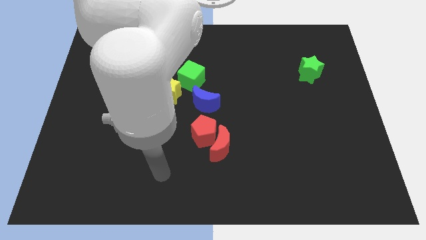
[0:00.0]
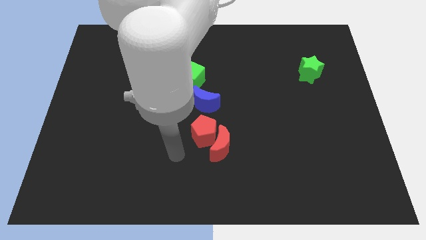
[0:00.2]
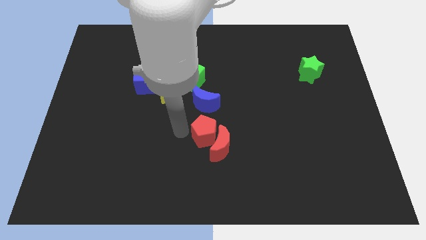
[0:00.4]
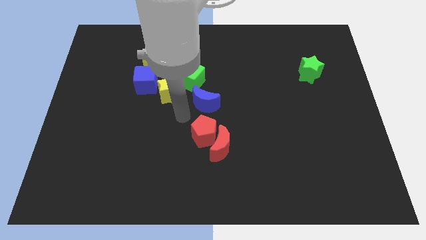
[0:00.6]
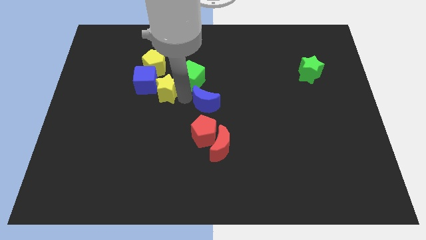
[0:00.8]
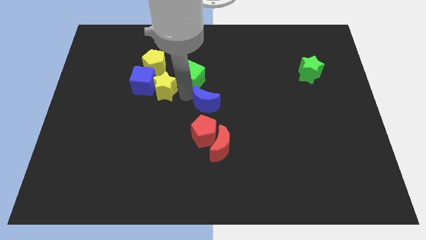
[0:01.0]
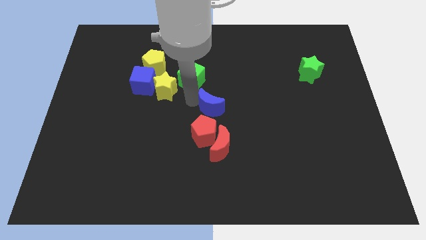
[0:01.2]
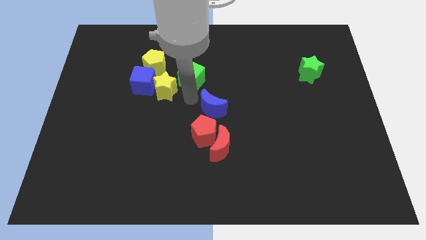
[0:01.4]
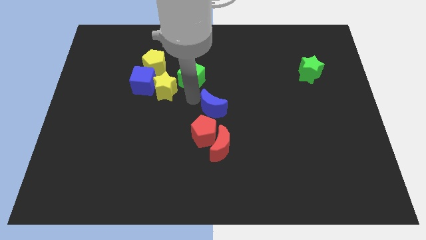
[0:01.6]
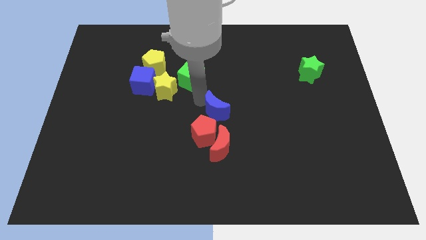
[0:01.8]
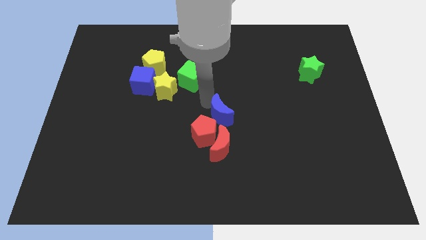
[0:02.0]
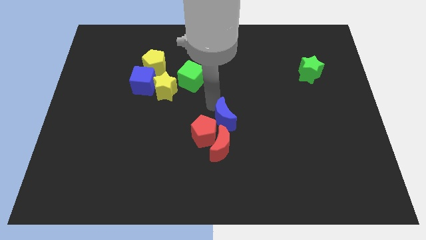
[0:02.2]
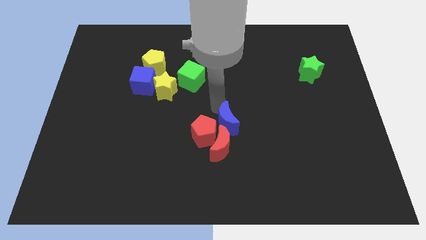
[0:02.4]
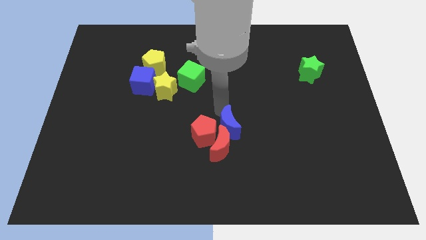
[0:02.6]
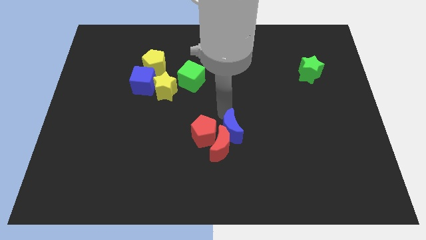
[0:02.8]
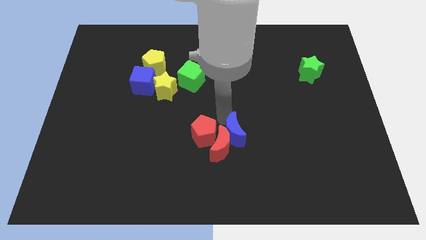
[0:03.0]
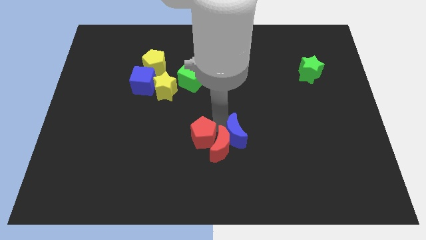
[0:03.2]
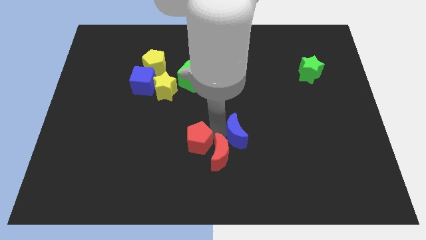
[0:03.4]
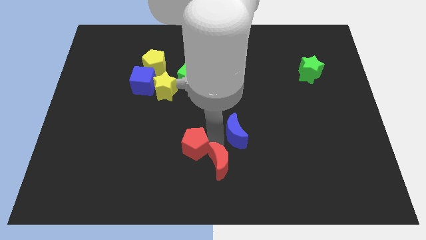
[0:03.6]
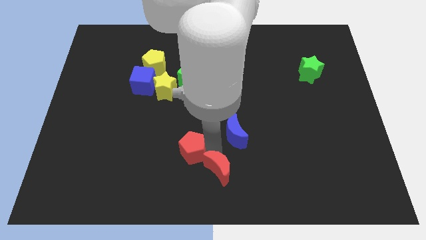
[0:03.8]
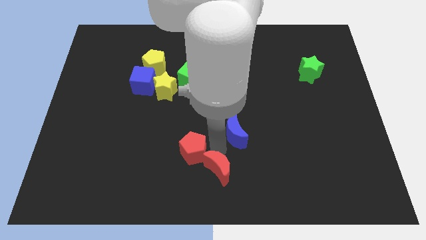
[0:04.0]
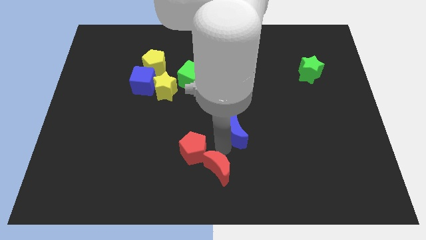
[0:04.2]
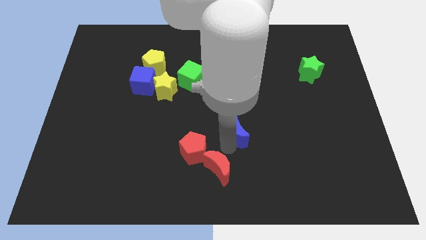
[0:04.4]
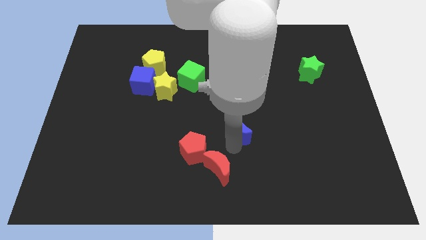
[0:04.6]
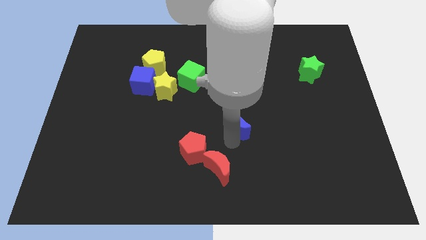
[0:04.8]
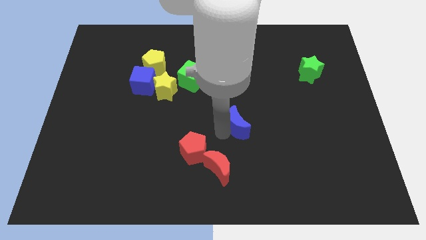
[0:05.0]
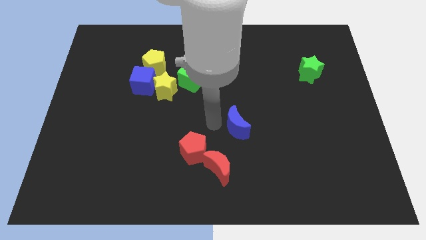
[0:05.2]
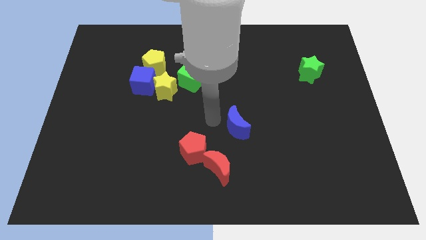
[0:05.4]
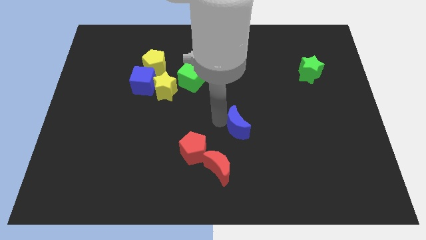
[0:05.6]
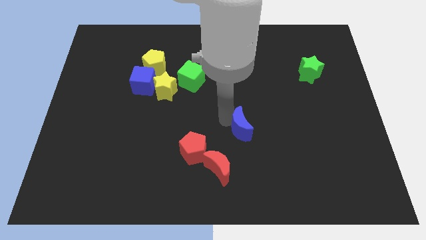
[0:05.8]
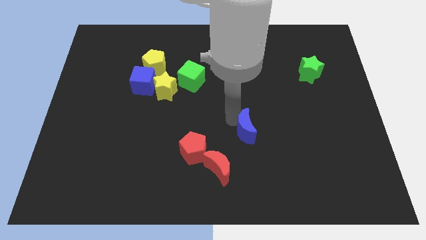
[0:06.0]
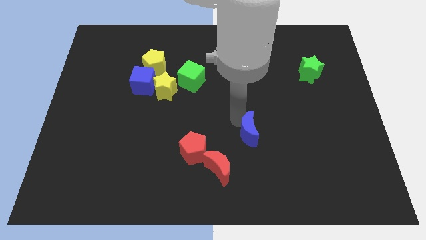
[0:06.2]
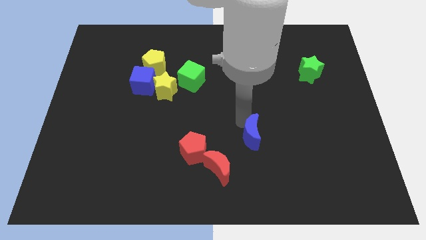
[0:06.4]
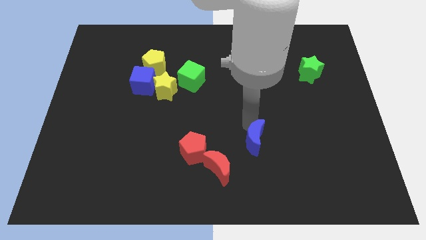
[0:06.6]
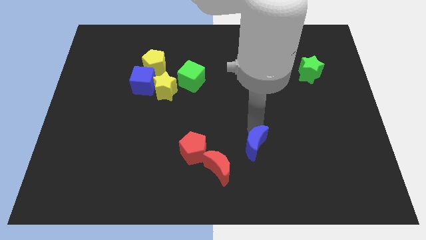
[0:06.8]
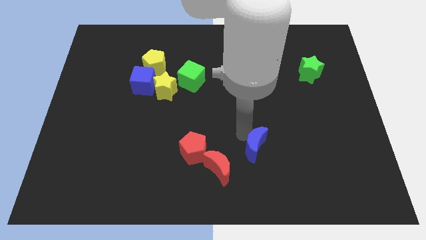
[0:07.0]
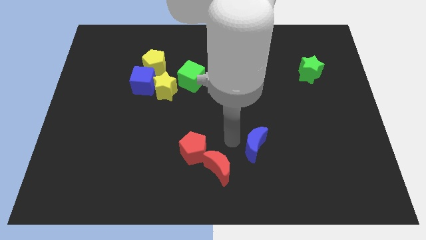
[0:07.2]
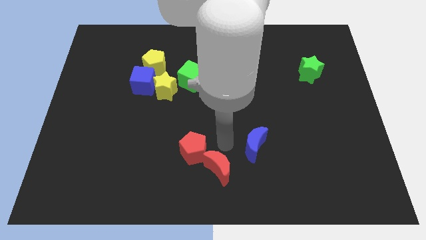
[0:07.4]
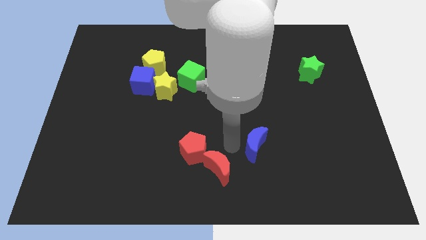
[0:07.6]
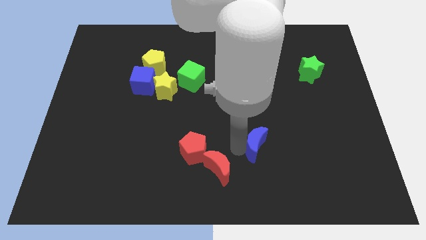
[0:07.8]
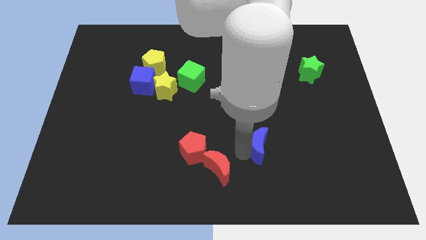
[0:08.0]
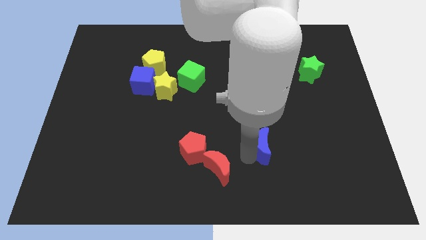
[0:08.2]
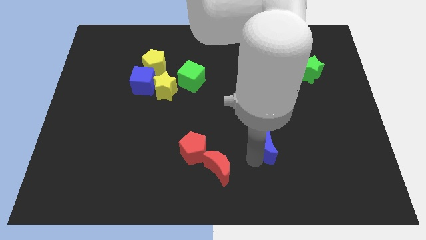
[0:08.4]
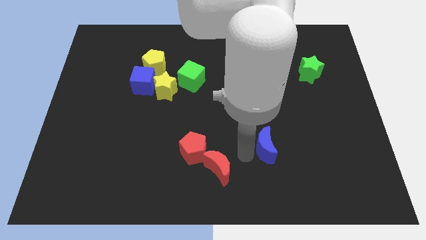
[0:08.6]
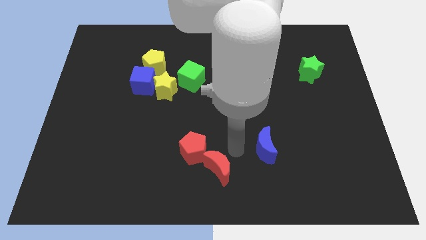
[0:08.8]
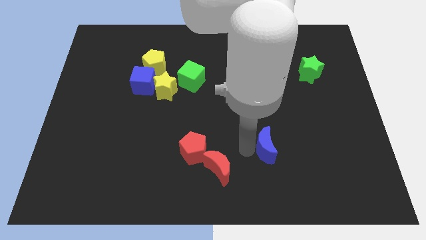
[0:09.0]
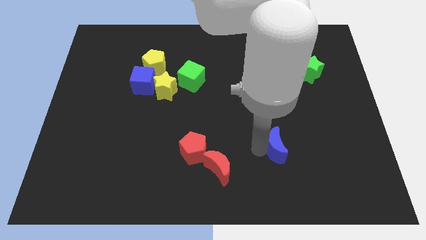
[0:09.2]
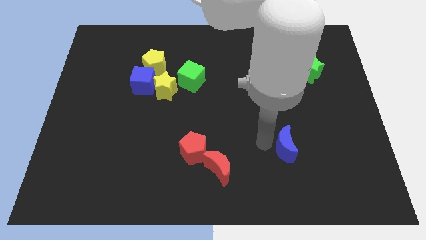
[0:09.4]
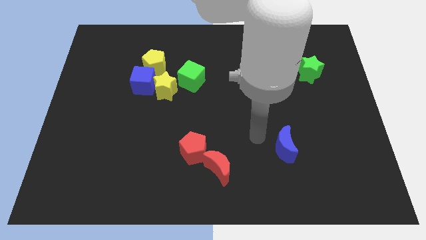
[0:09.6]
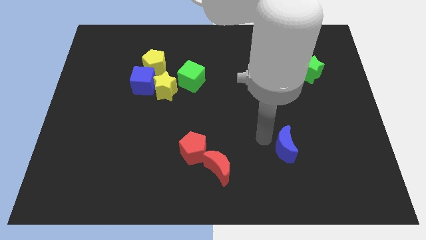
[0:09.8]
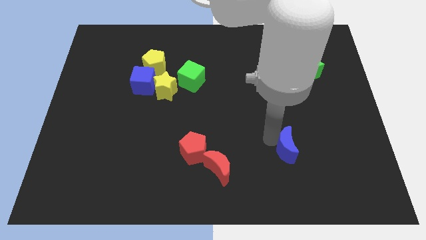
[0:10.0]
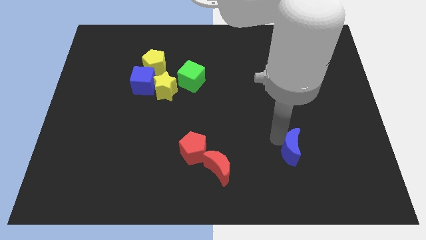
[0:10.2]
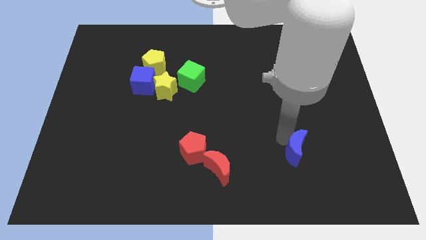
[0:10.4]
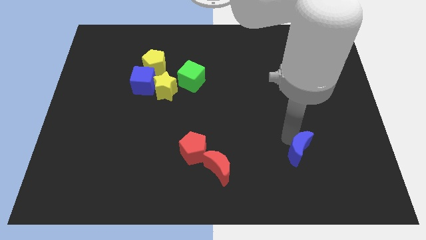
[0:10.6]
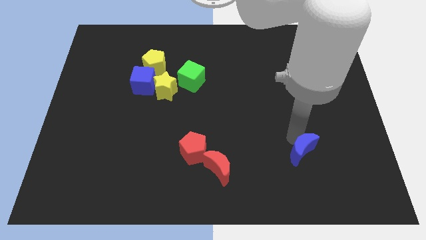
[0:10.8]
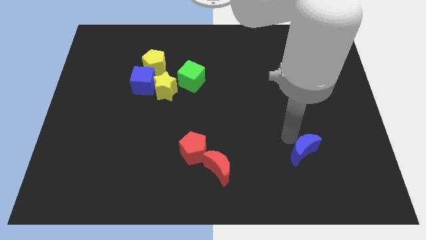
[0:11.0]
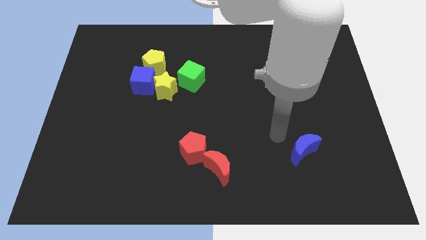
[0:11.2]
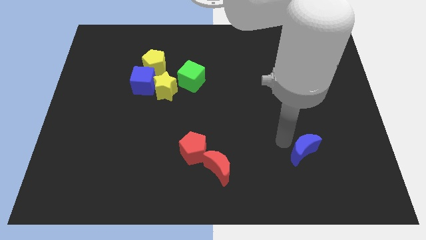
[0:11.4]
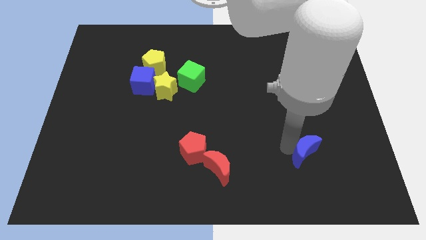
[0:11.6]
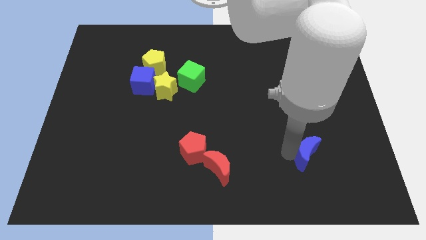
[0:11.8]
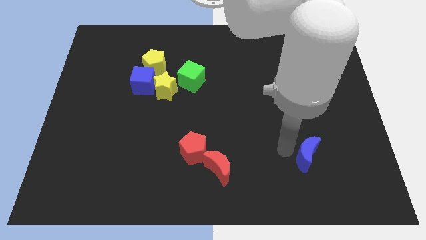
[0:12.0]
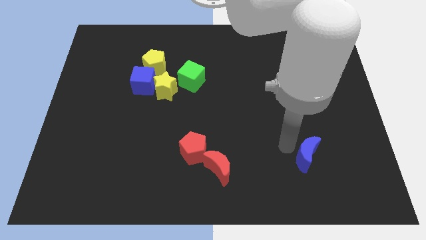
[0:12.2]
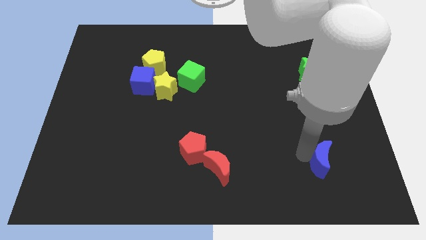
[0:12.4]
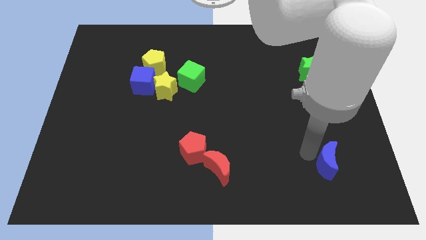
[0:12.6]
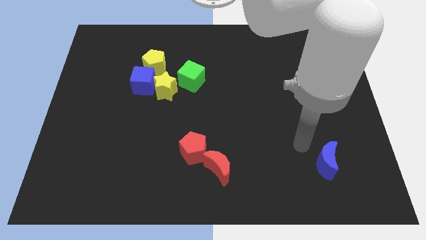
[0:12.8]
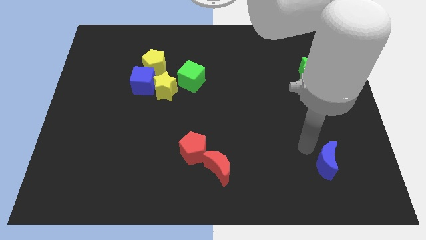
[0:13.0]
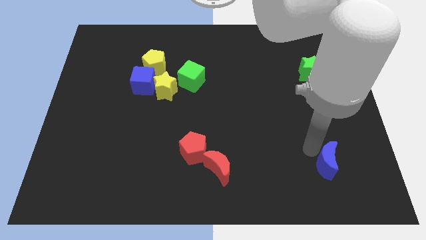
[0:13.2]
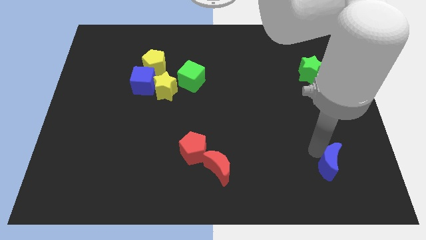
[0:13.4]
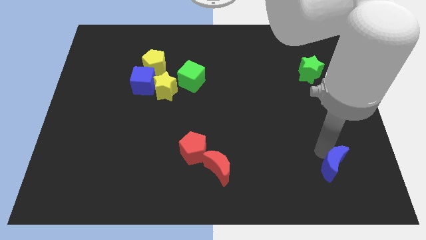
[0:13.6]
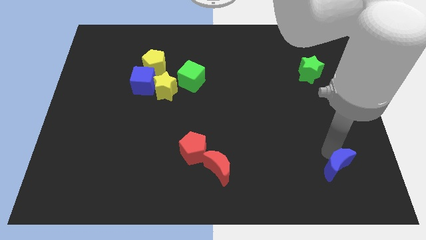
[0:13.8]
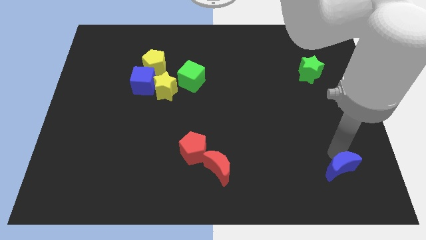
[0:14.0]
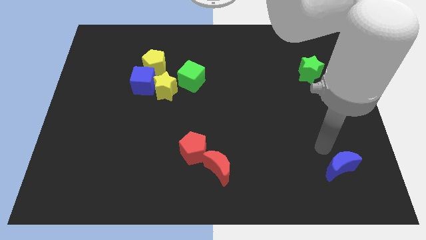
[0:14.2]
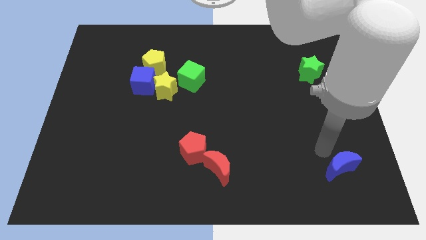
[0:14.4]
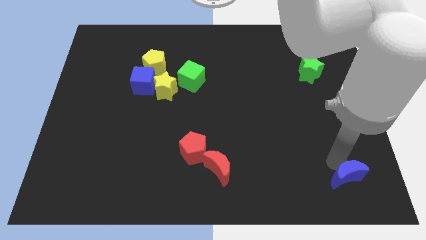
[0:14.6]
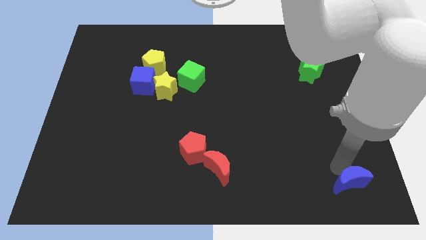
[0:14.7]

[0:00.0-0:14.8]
put the blue moon to the bottom right of the board

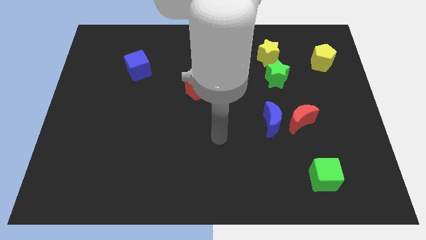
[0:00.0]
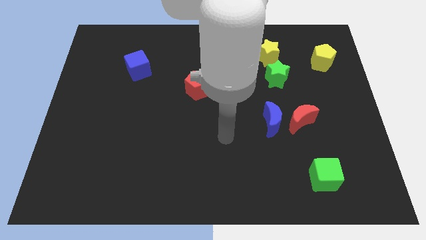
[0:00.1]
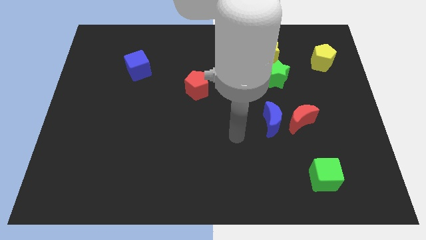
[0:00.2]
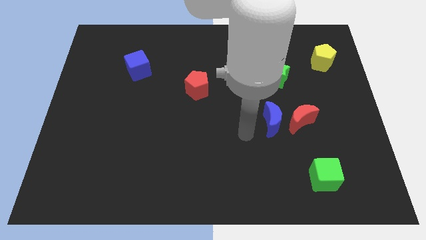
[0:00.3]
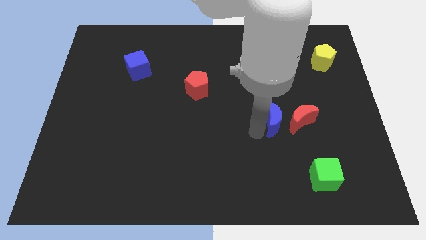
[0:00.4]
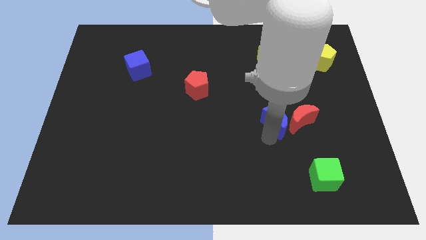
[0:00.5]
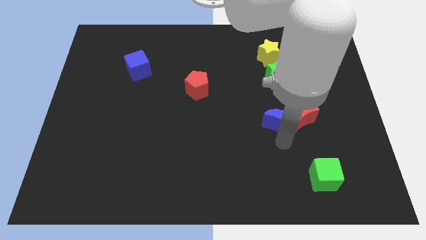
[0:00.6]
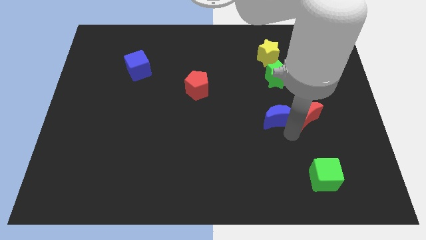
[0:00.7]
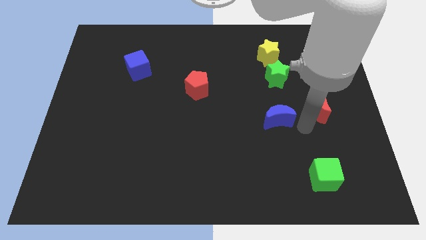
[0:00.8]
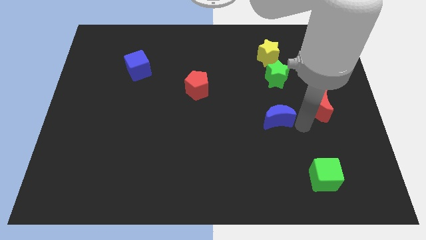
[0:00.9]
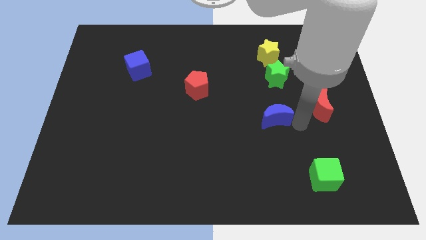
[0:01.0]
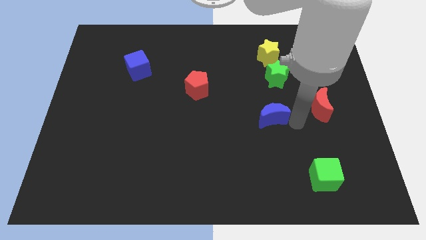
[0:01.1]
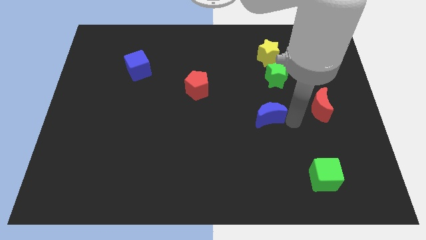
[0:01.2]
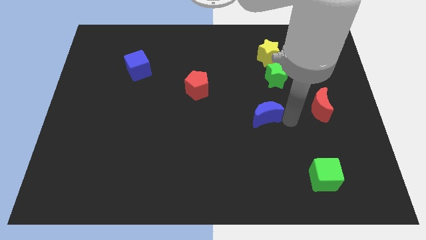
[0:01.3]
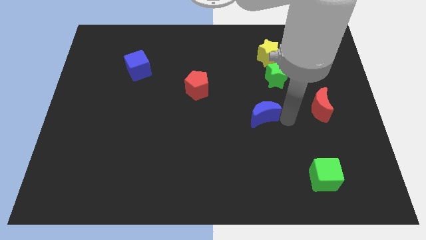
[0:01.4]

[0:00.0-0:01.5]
move the blue moon to the center
